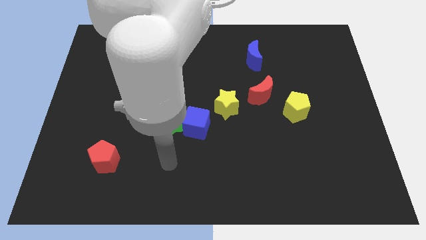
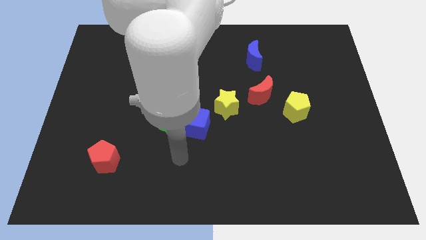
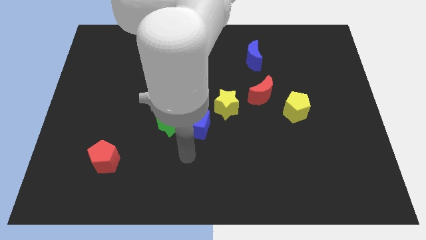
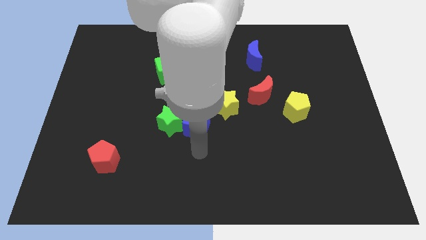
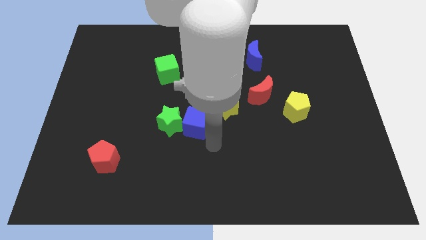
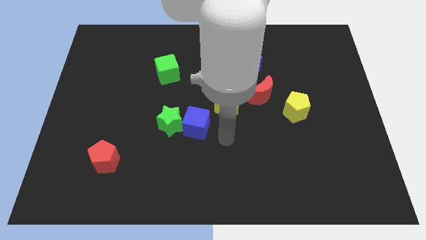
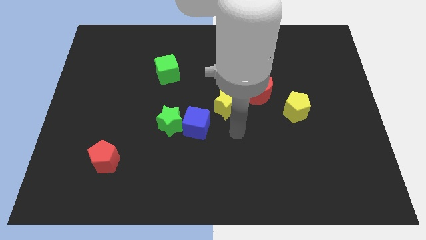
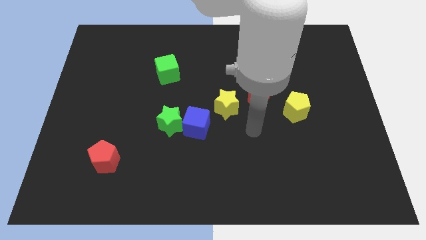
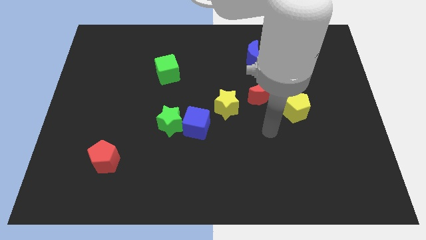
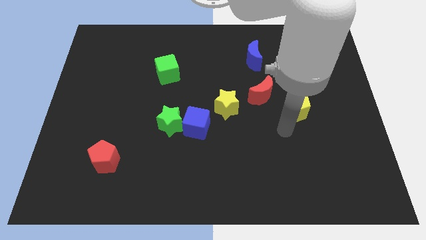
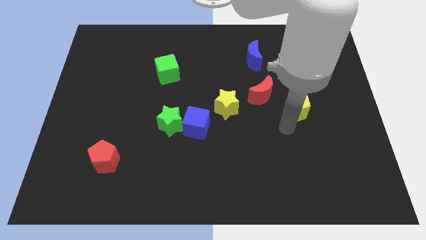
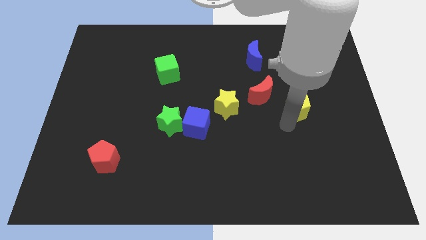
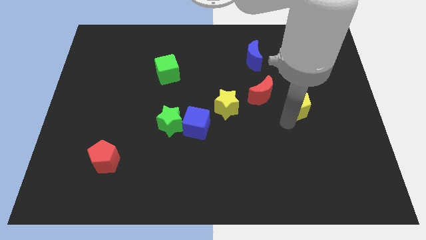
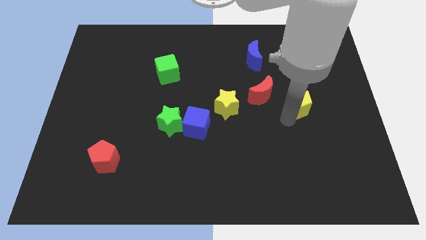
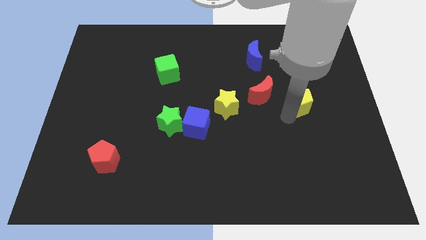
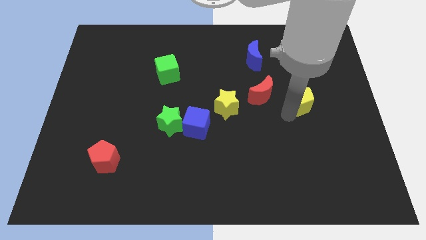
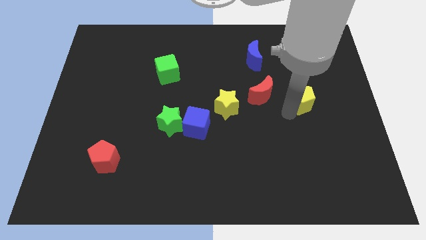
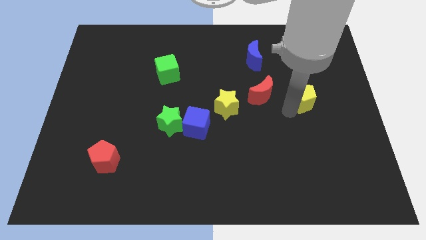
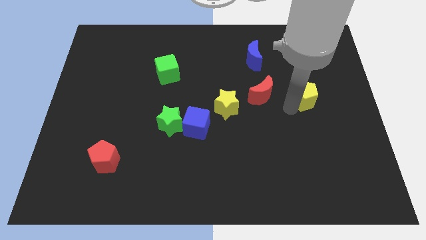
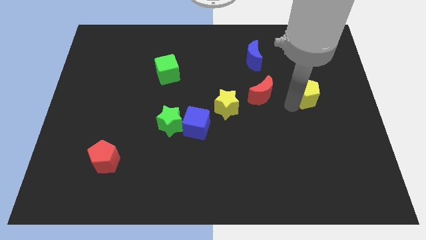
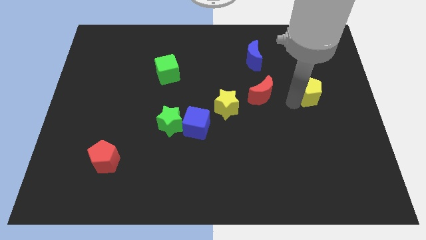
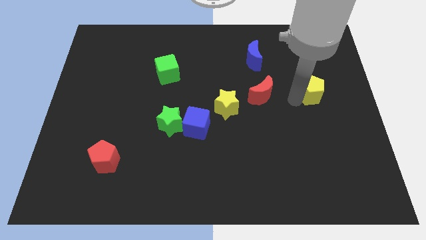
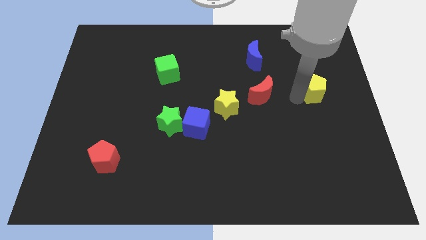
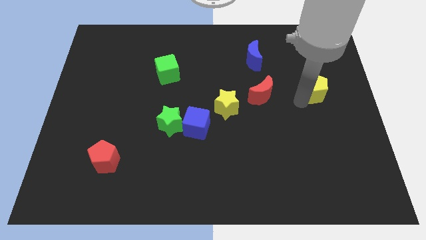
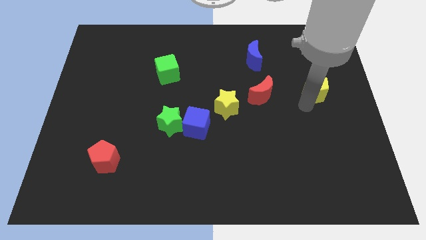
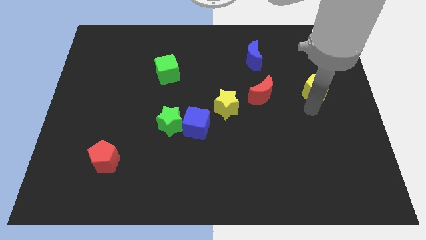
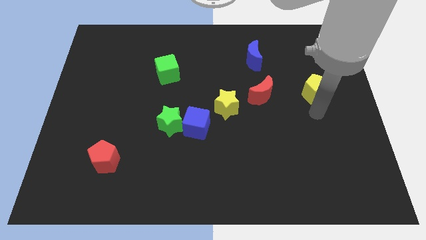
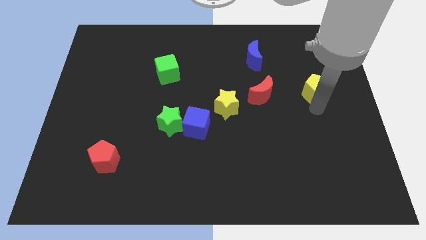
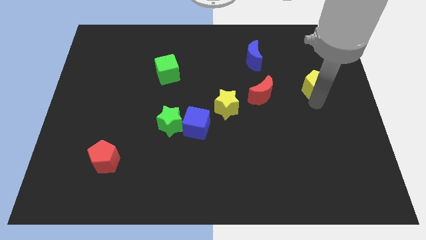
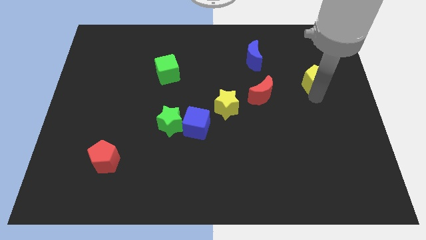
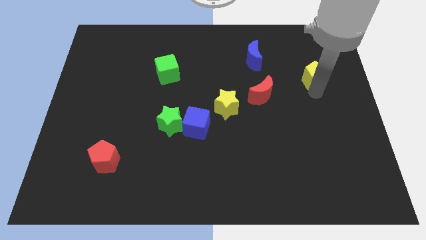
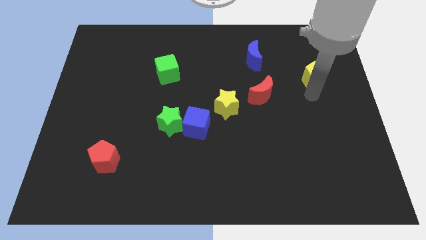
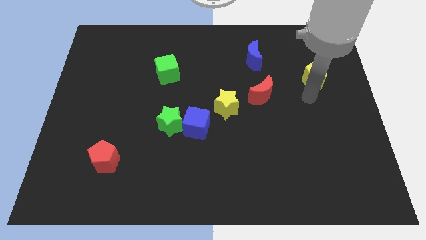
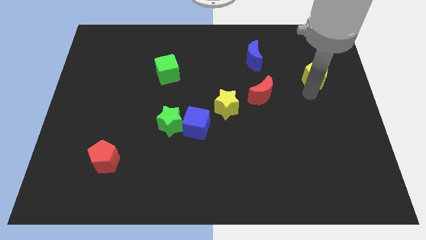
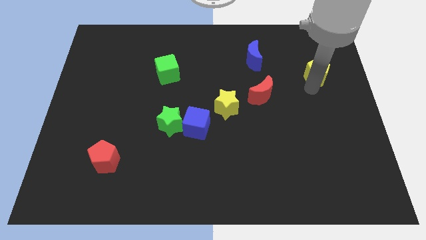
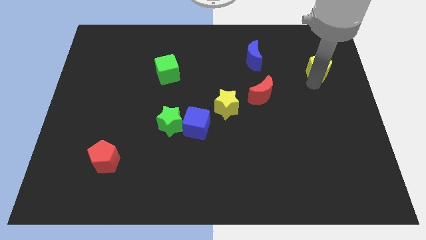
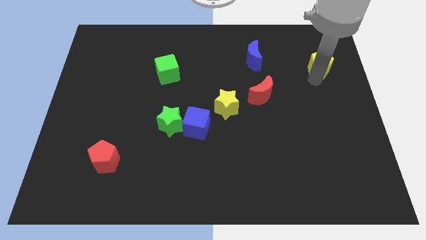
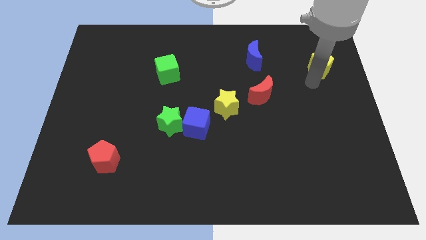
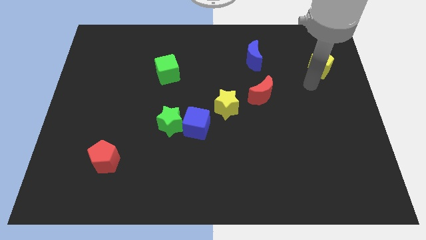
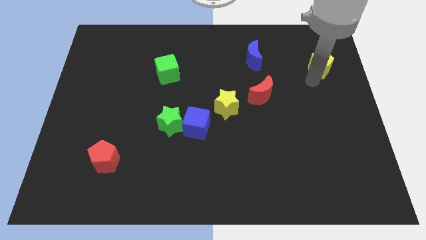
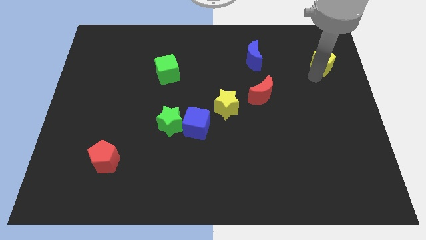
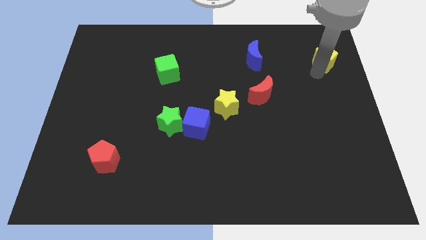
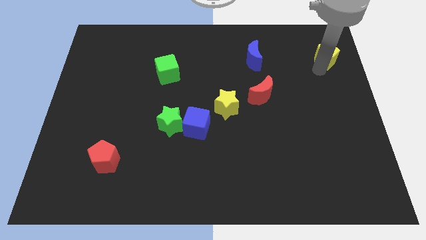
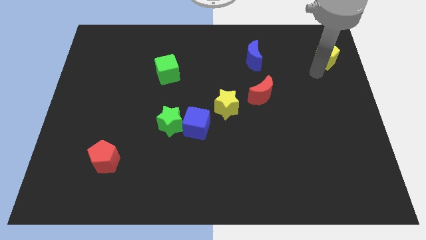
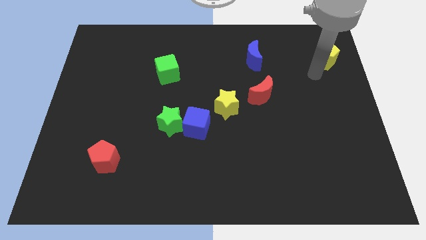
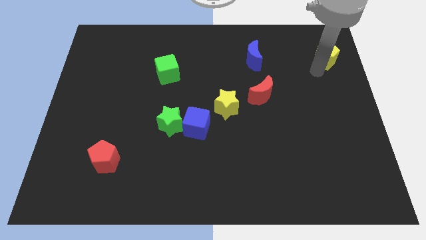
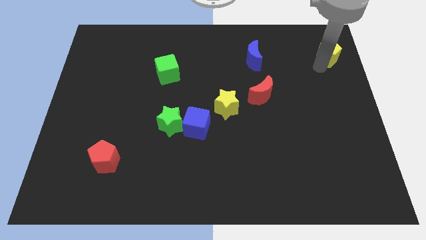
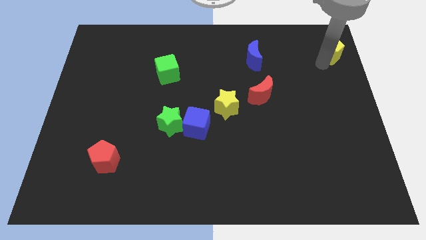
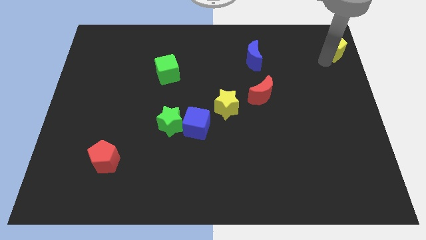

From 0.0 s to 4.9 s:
push the yellow pentagon to the upper right corner

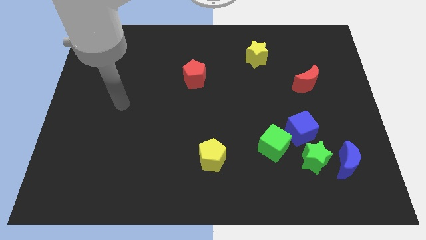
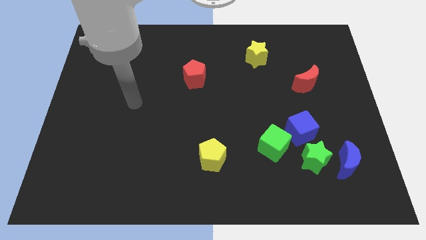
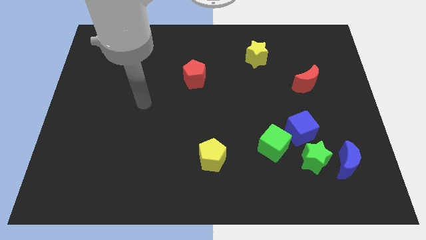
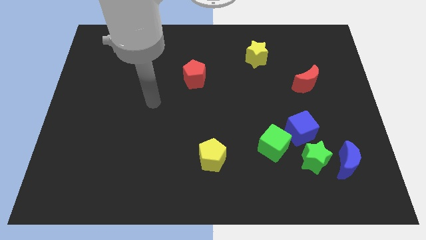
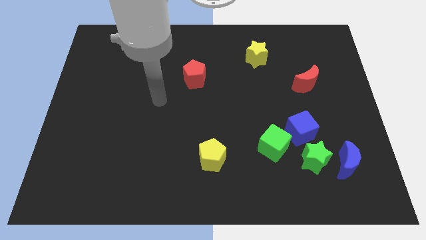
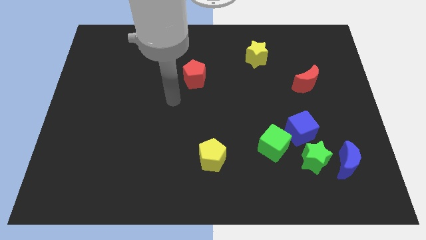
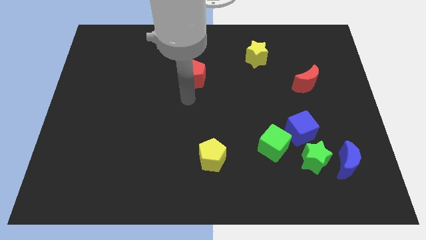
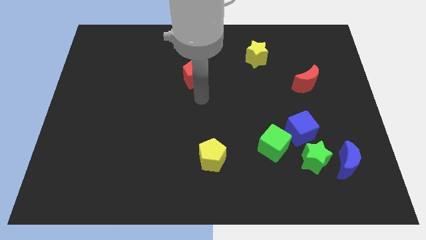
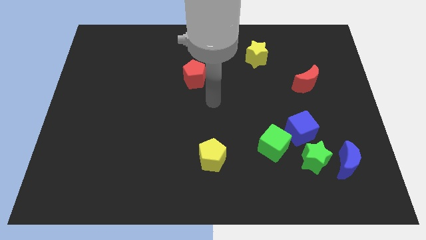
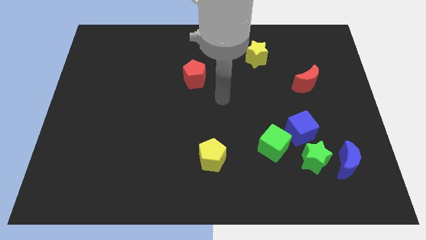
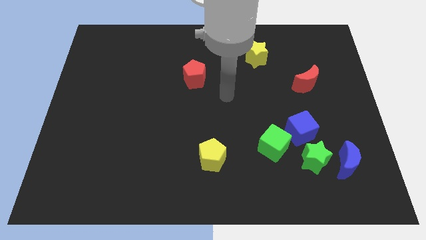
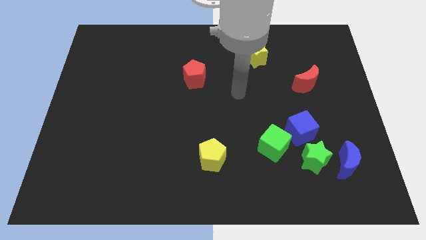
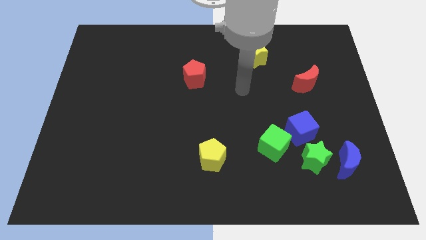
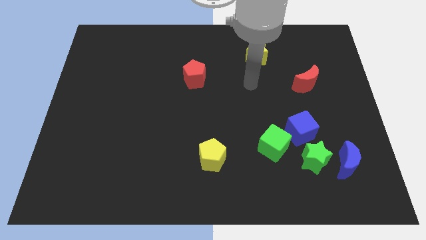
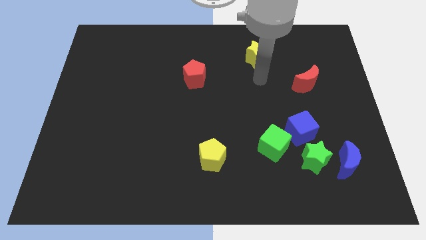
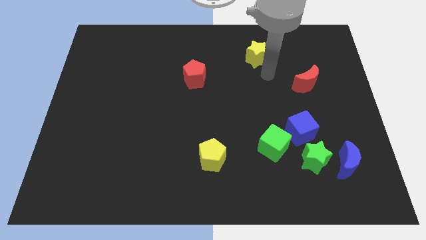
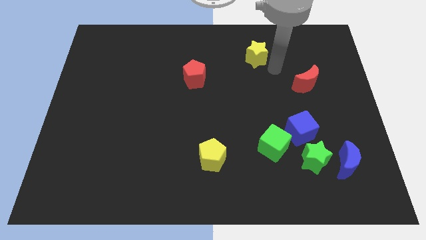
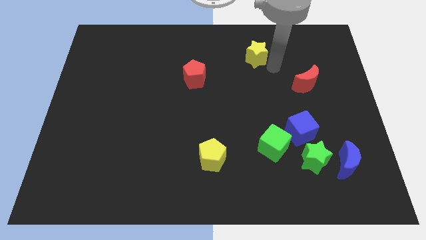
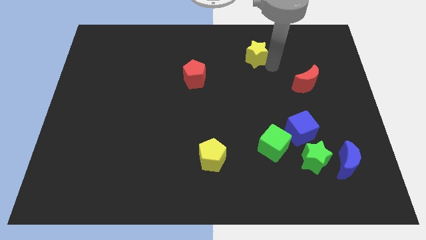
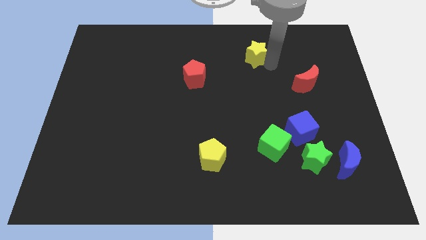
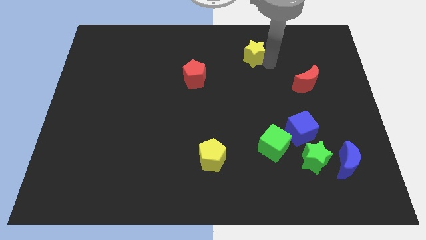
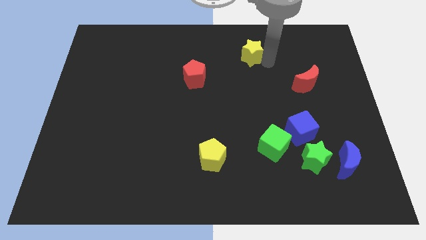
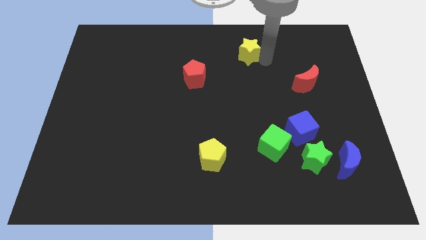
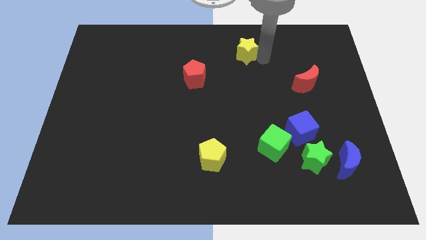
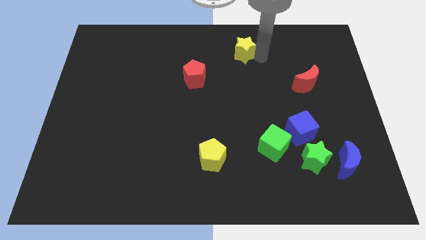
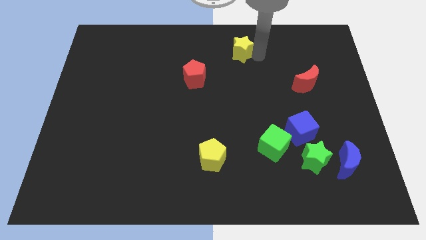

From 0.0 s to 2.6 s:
put the yellow star to the top
